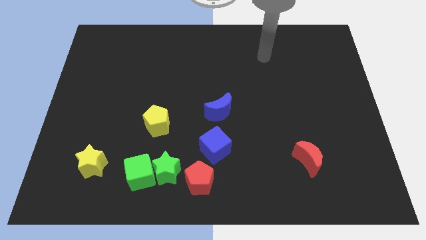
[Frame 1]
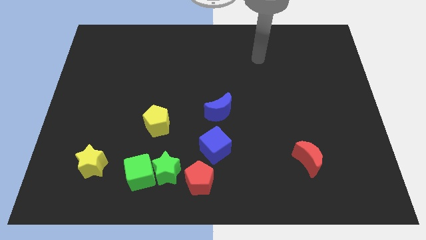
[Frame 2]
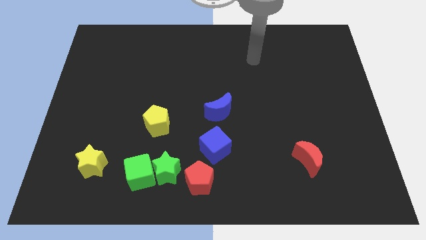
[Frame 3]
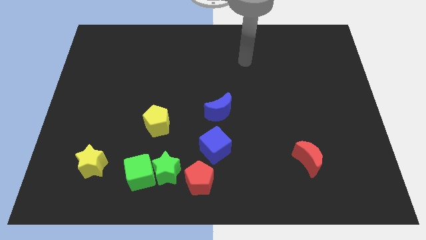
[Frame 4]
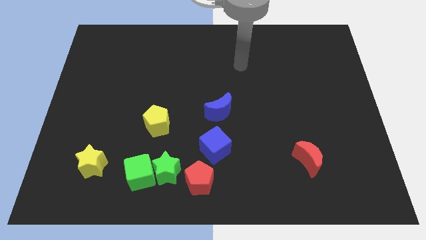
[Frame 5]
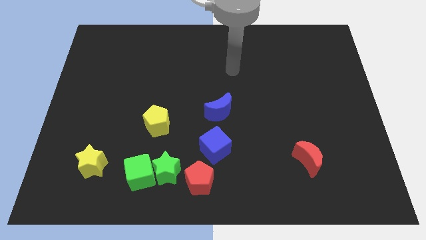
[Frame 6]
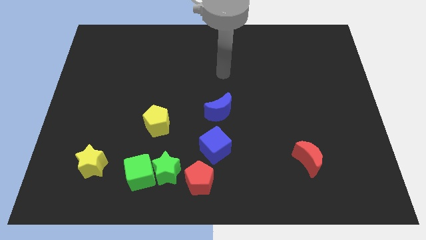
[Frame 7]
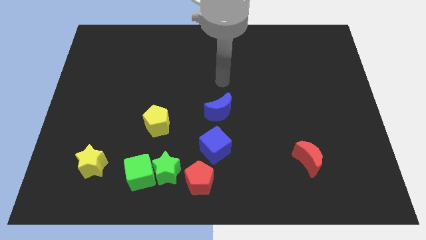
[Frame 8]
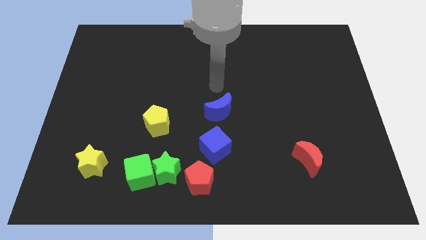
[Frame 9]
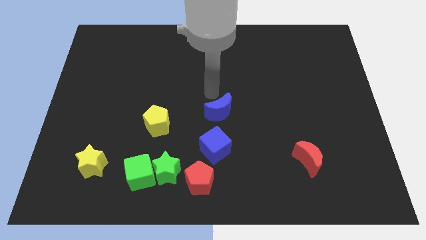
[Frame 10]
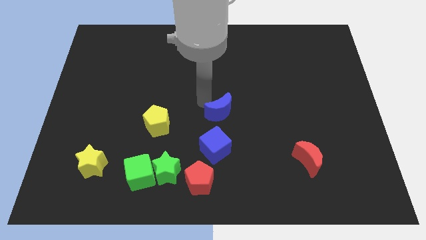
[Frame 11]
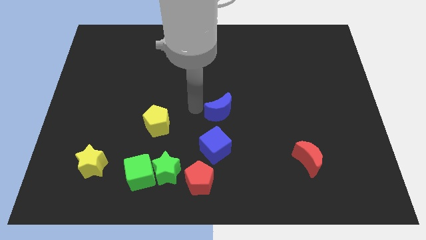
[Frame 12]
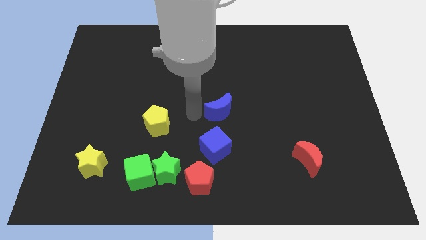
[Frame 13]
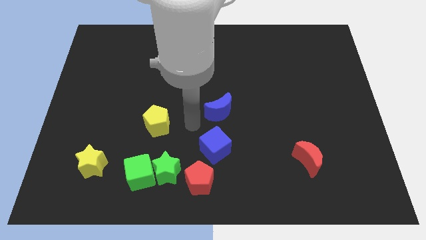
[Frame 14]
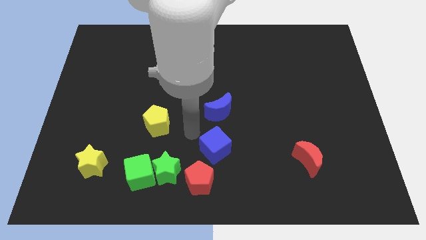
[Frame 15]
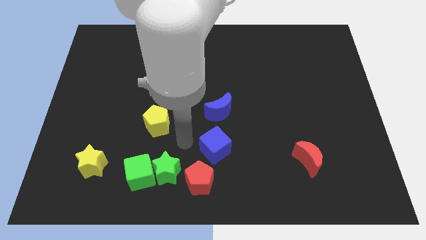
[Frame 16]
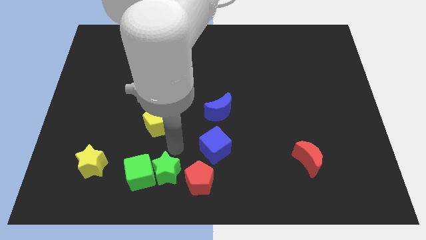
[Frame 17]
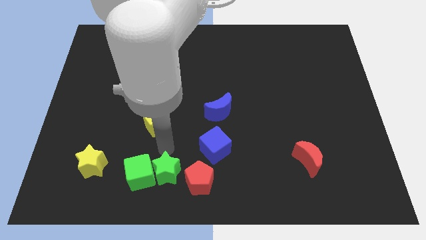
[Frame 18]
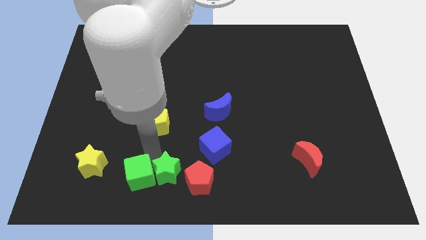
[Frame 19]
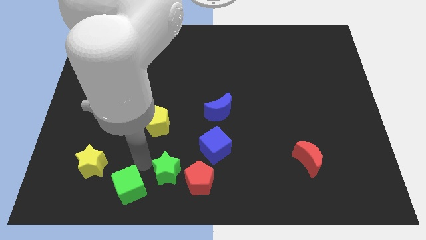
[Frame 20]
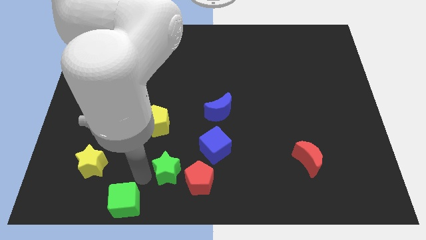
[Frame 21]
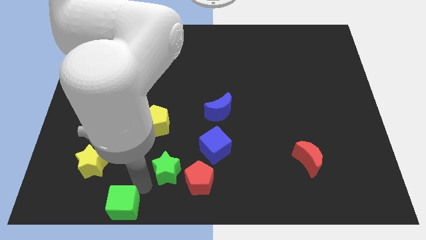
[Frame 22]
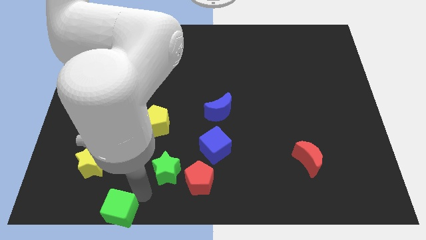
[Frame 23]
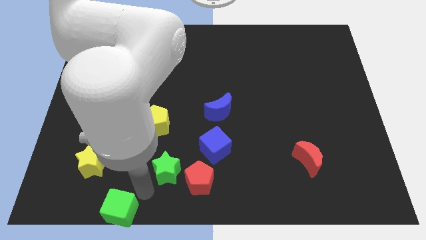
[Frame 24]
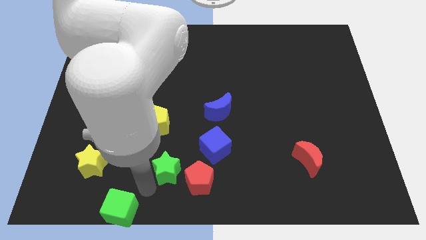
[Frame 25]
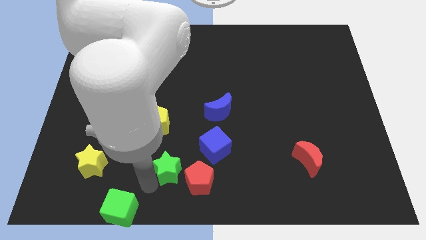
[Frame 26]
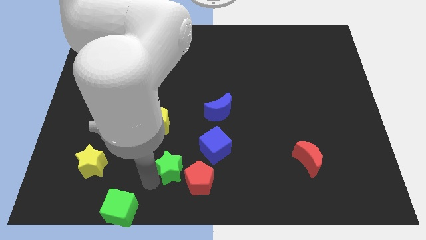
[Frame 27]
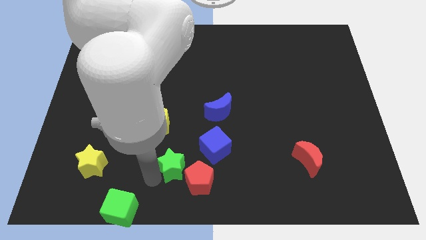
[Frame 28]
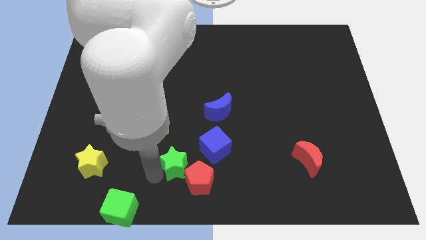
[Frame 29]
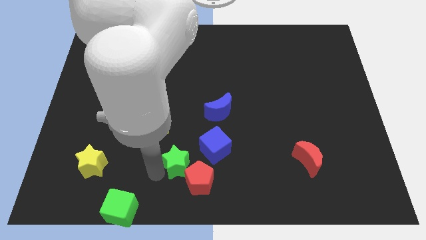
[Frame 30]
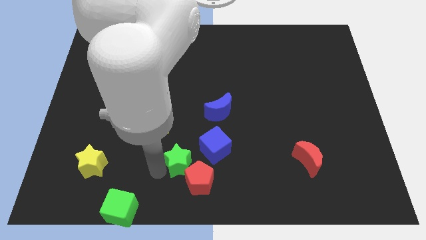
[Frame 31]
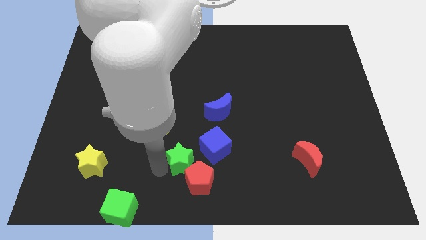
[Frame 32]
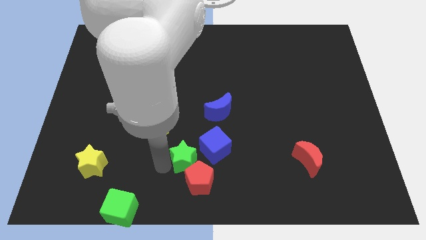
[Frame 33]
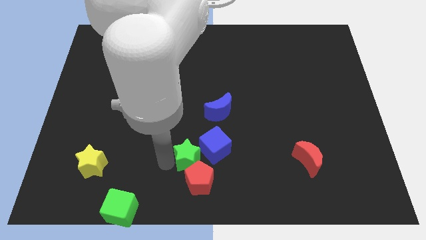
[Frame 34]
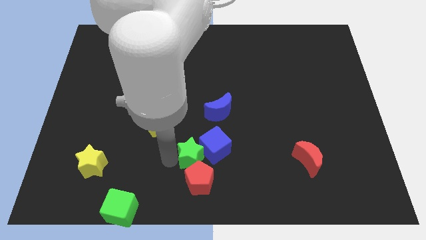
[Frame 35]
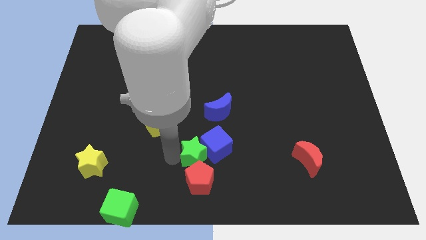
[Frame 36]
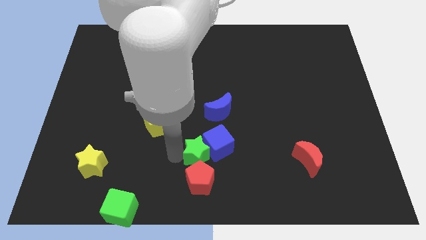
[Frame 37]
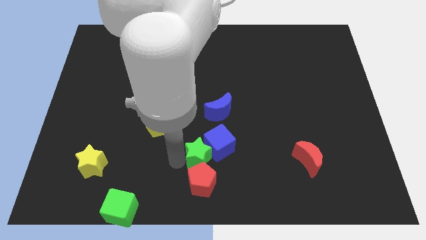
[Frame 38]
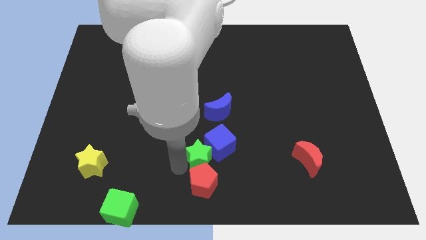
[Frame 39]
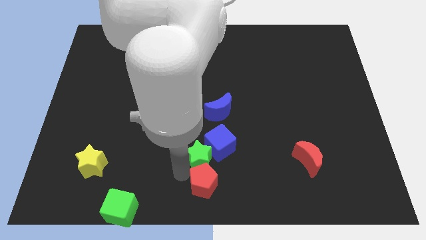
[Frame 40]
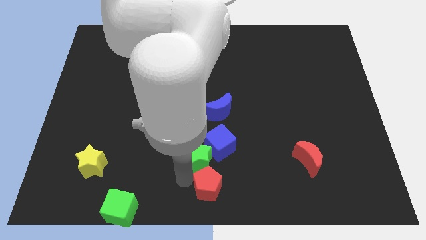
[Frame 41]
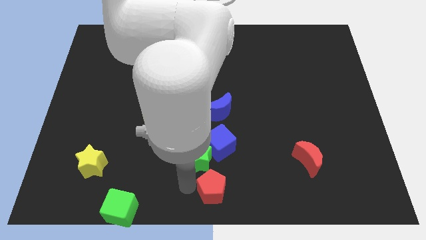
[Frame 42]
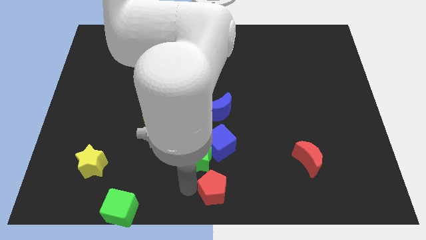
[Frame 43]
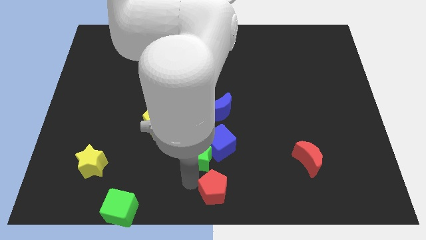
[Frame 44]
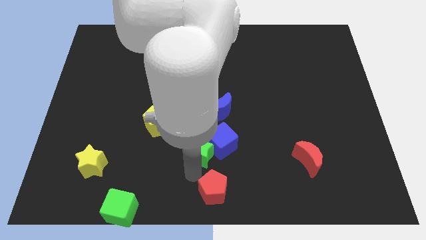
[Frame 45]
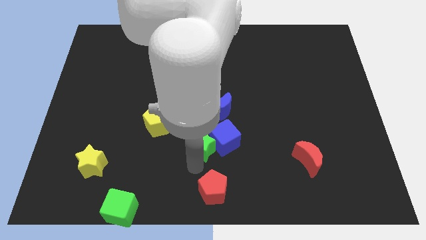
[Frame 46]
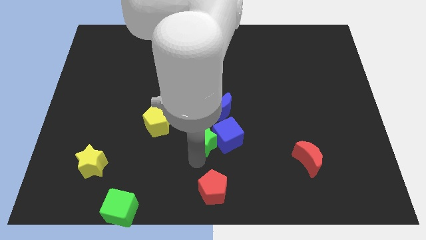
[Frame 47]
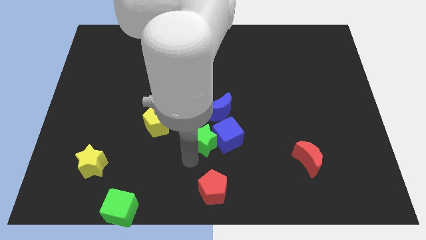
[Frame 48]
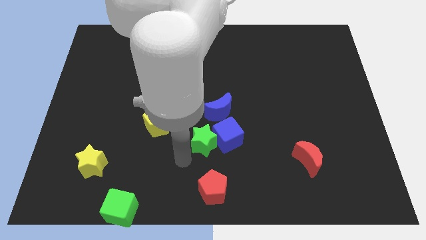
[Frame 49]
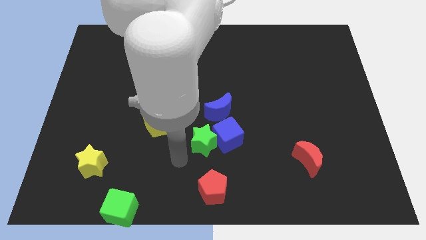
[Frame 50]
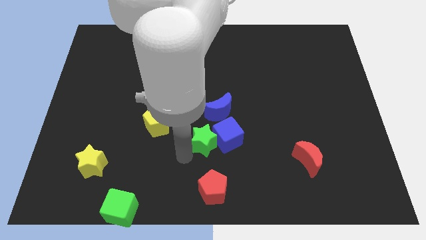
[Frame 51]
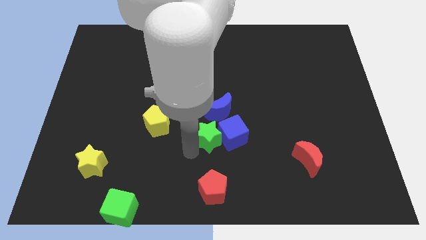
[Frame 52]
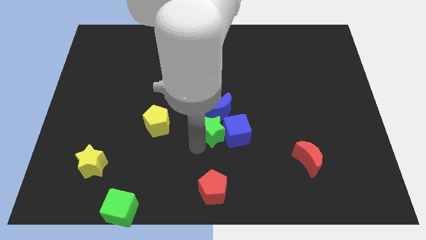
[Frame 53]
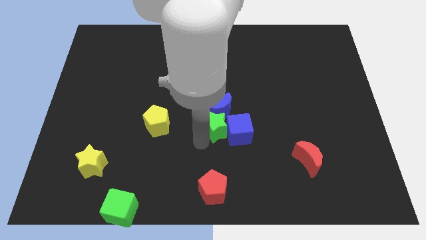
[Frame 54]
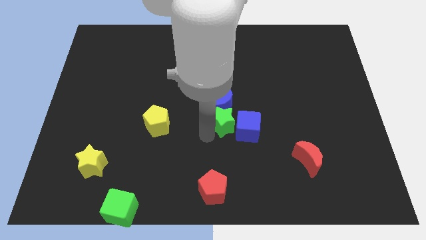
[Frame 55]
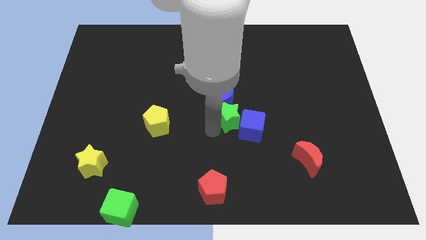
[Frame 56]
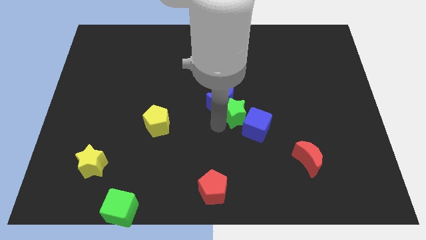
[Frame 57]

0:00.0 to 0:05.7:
push the green star diagonally upwards and to the right

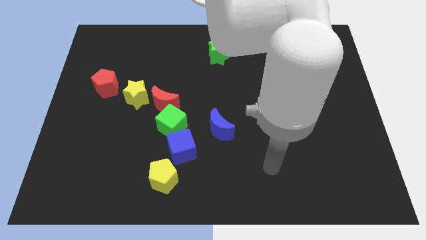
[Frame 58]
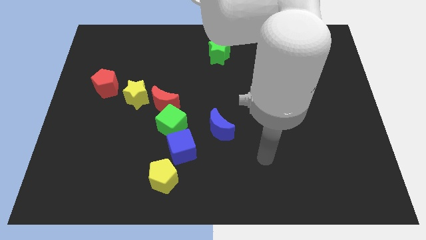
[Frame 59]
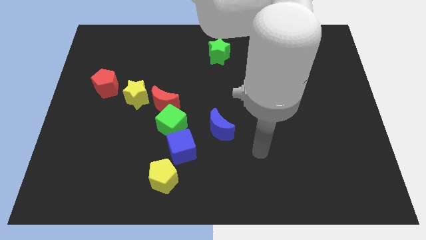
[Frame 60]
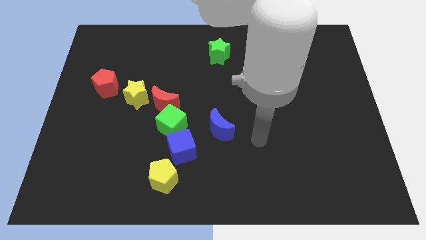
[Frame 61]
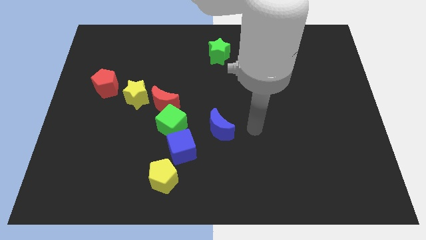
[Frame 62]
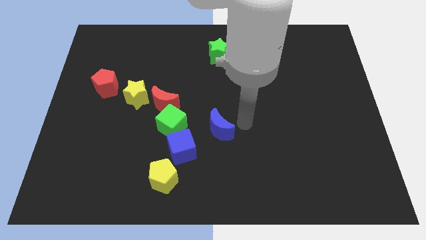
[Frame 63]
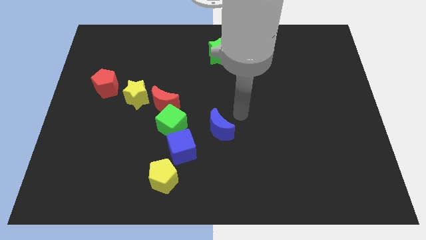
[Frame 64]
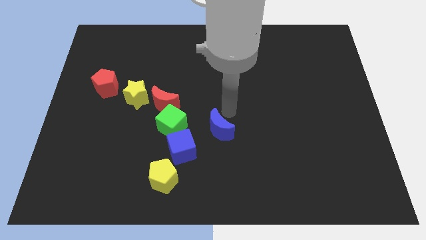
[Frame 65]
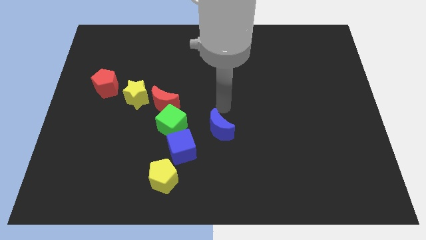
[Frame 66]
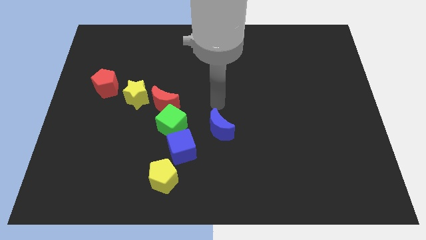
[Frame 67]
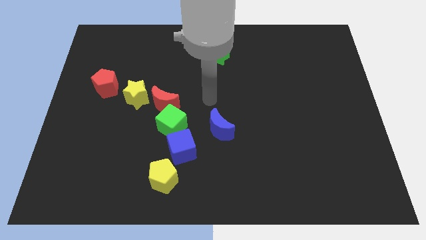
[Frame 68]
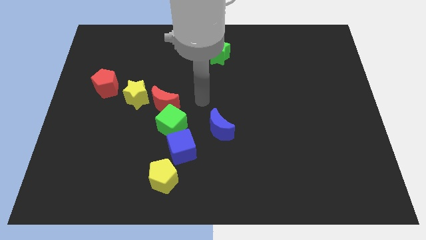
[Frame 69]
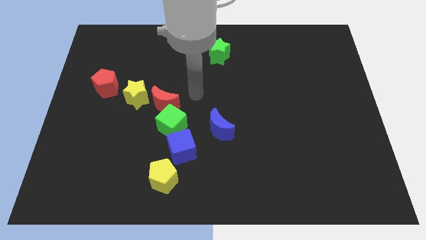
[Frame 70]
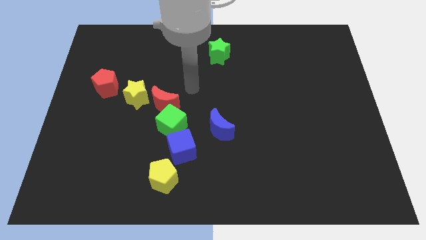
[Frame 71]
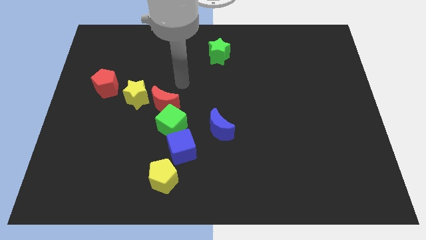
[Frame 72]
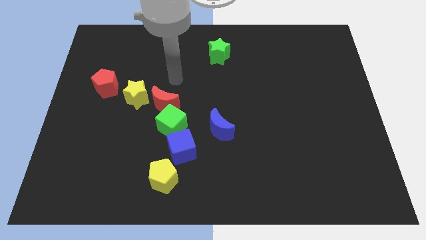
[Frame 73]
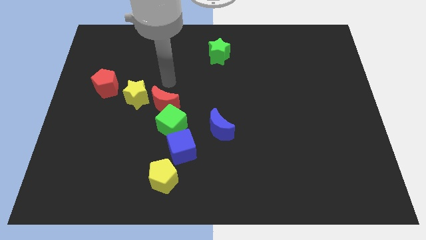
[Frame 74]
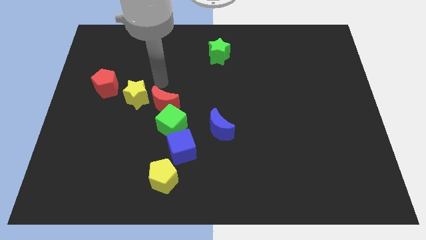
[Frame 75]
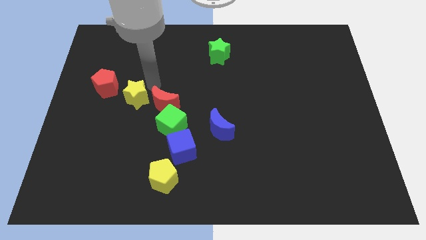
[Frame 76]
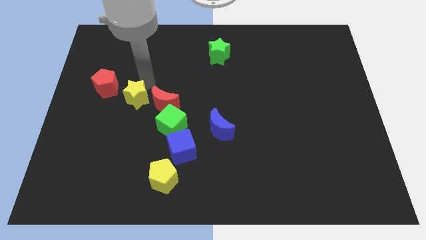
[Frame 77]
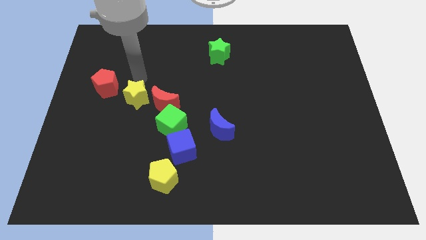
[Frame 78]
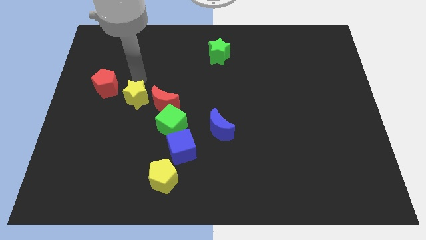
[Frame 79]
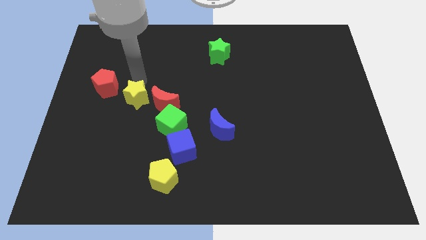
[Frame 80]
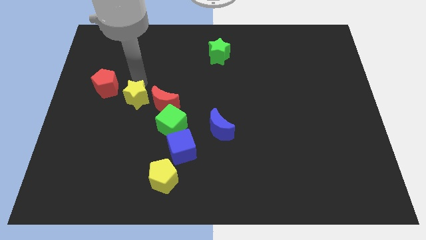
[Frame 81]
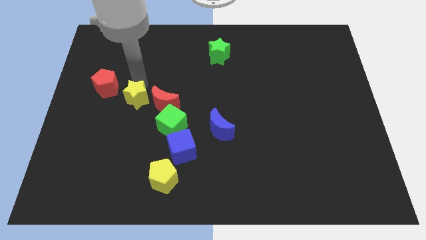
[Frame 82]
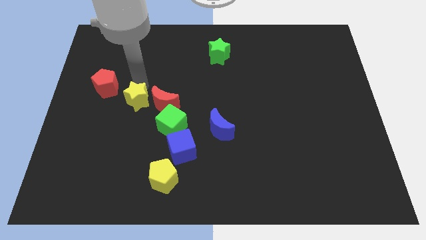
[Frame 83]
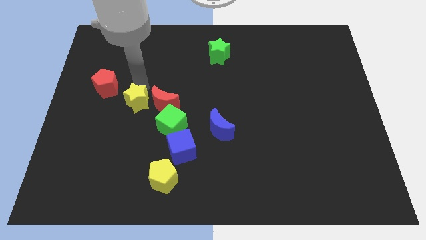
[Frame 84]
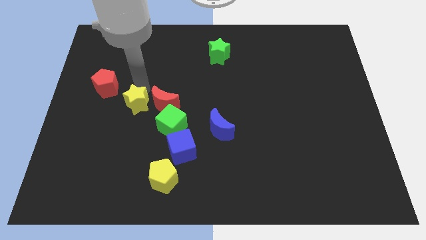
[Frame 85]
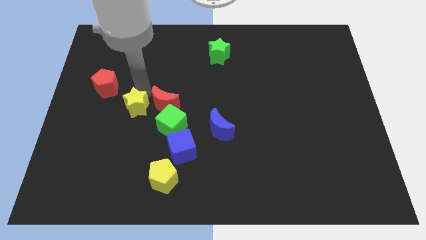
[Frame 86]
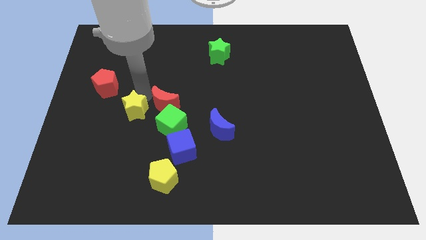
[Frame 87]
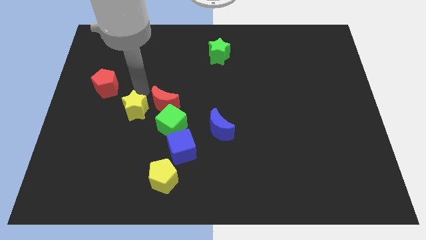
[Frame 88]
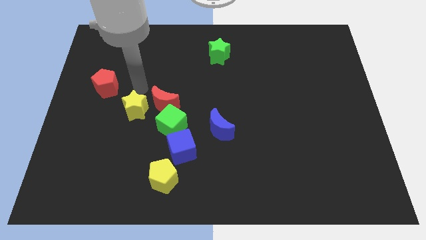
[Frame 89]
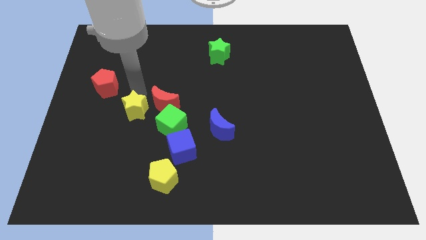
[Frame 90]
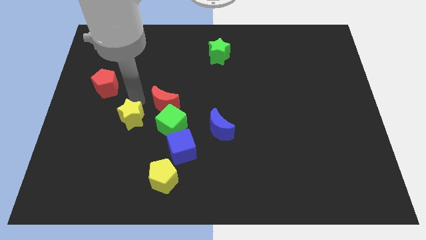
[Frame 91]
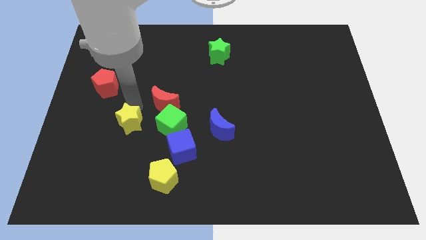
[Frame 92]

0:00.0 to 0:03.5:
push the yellow star downwards a bit
